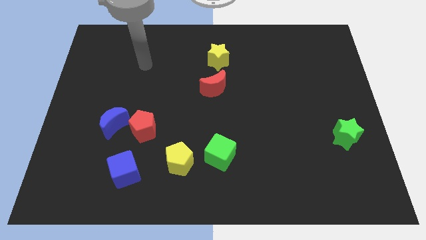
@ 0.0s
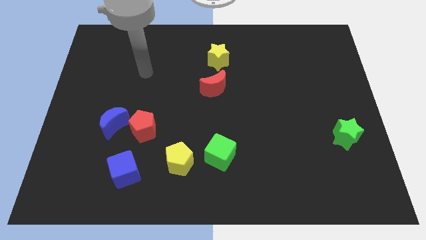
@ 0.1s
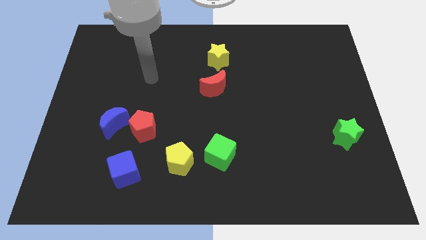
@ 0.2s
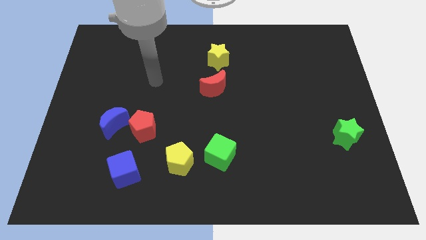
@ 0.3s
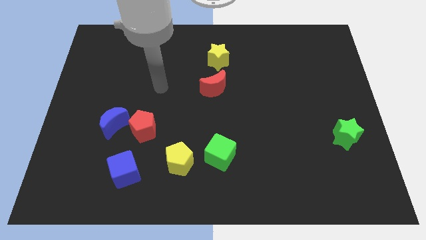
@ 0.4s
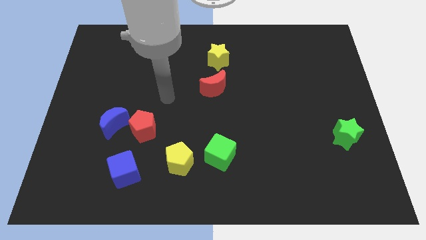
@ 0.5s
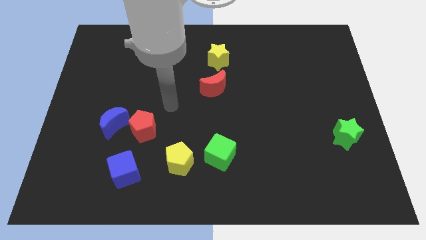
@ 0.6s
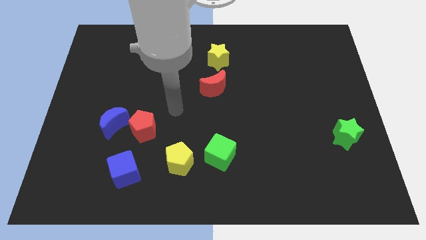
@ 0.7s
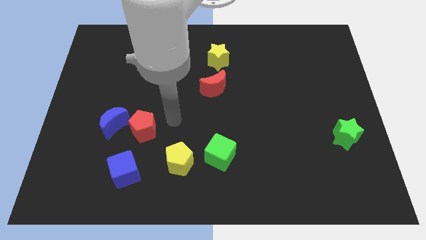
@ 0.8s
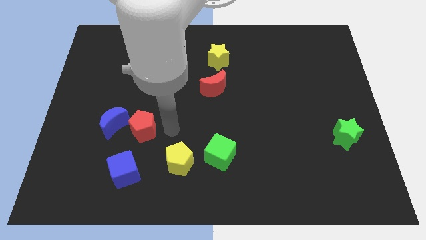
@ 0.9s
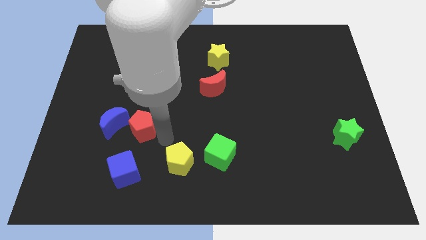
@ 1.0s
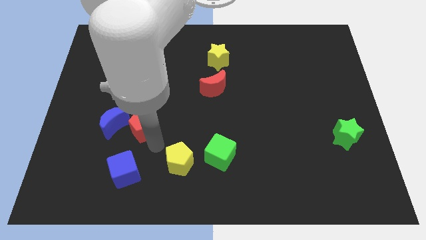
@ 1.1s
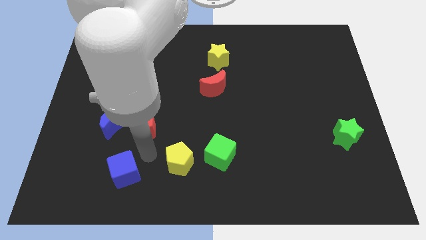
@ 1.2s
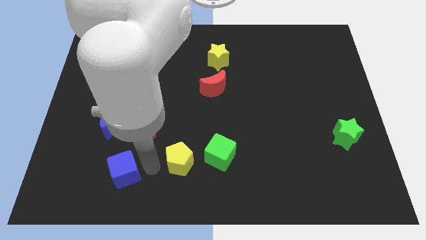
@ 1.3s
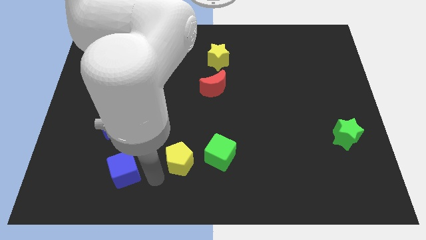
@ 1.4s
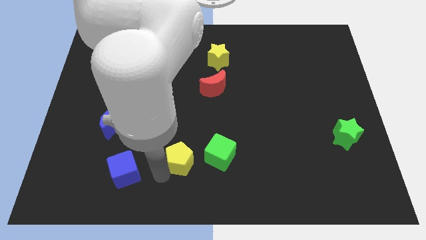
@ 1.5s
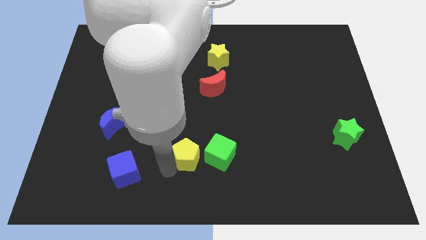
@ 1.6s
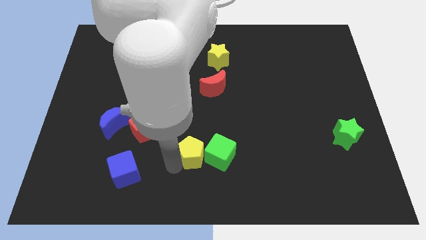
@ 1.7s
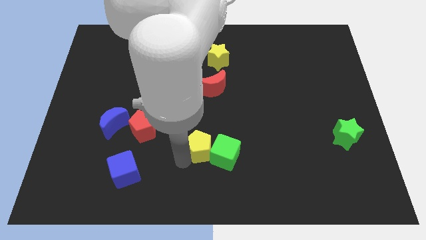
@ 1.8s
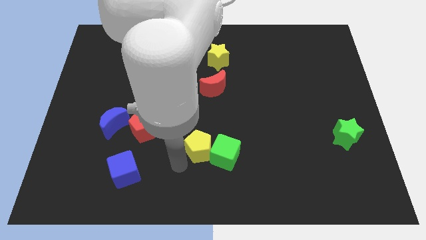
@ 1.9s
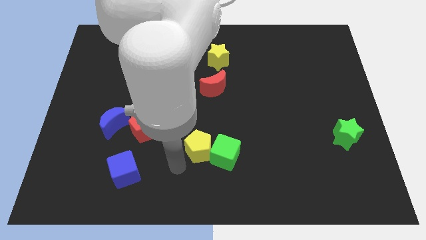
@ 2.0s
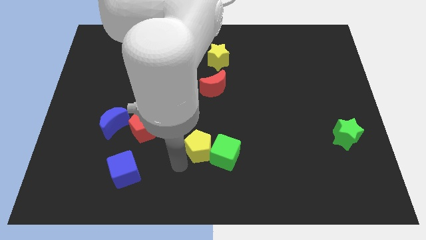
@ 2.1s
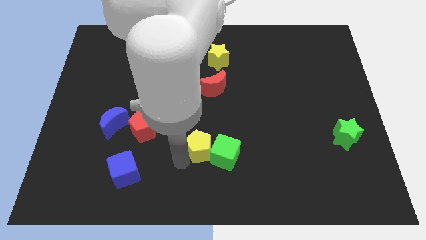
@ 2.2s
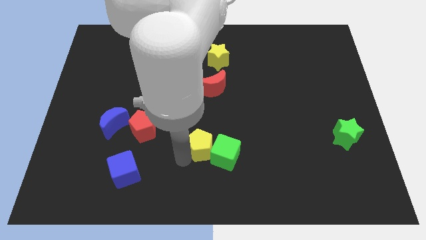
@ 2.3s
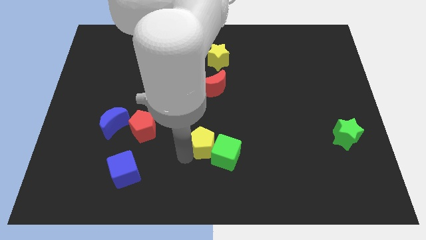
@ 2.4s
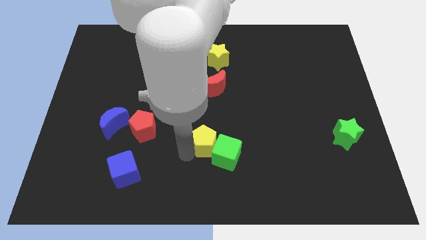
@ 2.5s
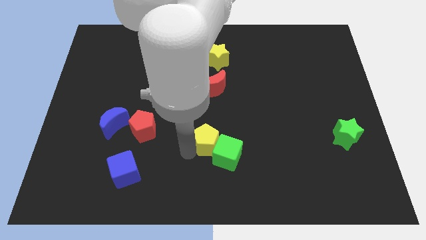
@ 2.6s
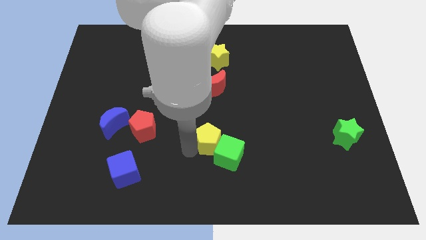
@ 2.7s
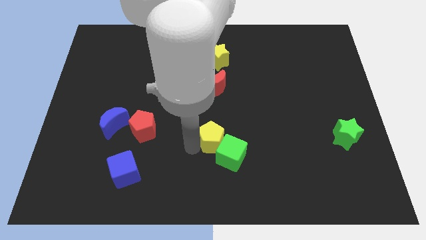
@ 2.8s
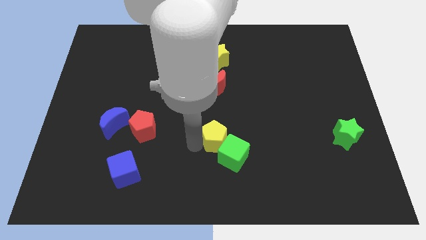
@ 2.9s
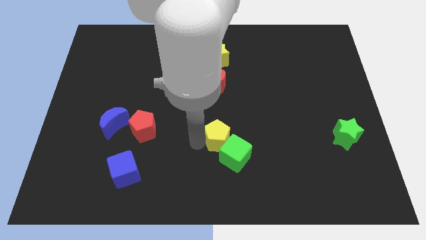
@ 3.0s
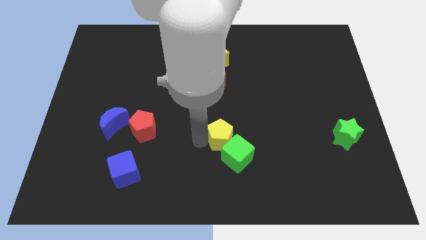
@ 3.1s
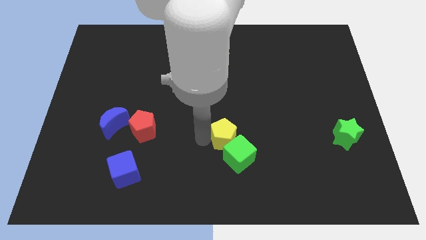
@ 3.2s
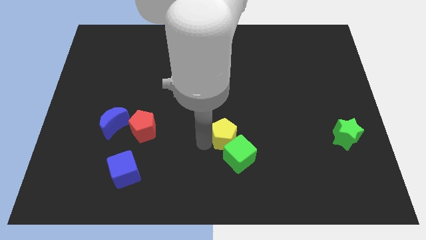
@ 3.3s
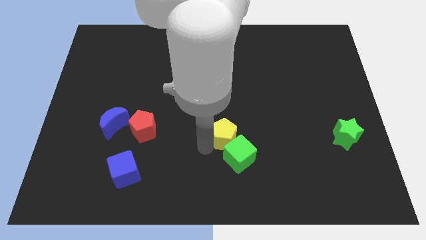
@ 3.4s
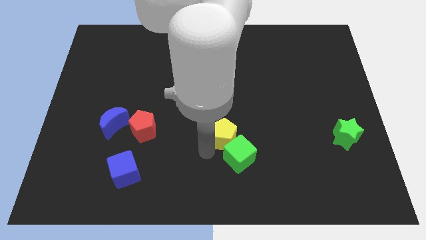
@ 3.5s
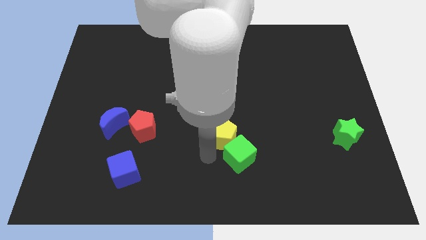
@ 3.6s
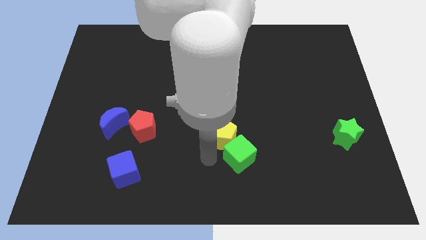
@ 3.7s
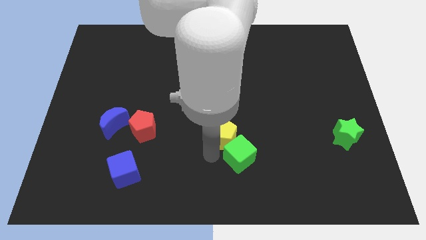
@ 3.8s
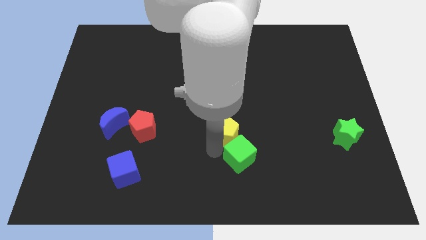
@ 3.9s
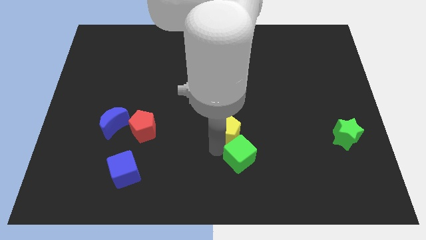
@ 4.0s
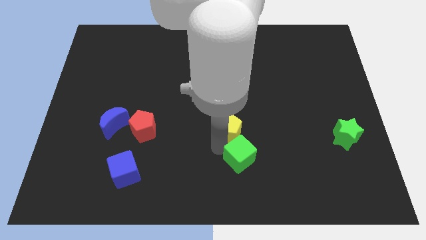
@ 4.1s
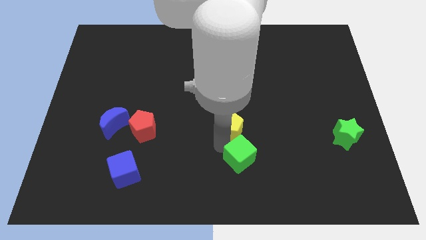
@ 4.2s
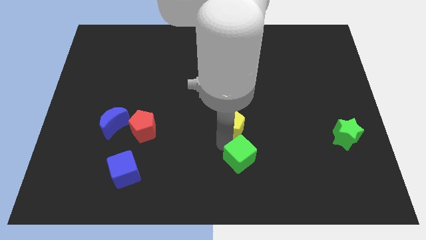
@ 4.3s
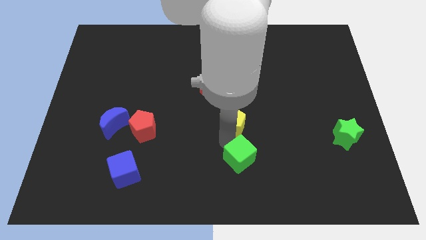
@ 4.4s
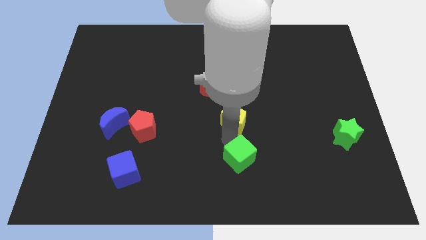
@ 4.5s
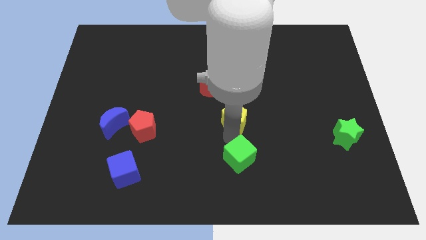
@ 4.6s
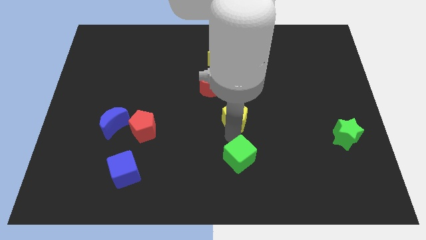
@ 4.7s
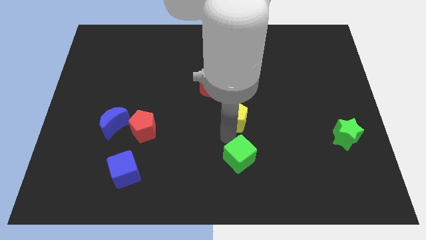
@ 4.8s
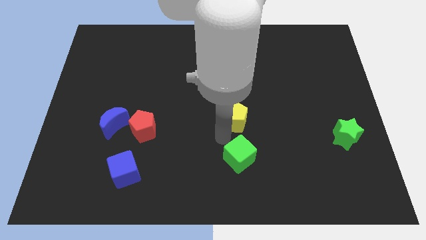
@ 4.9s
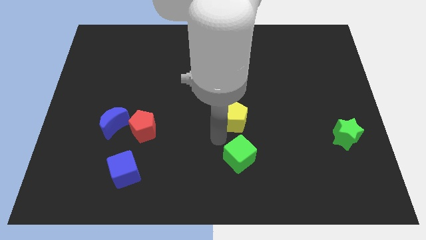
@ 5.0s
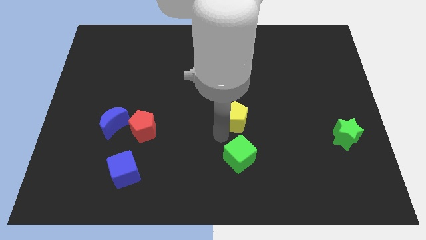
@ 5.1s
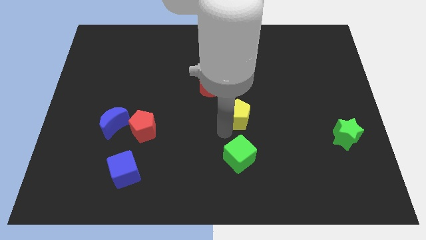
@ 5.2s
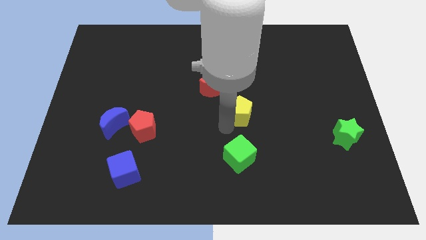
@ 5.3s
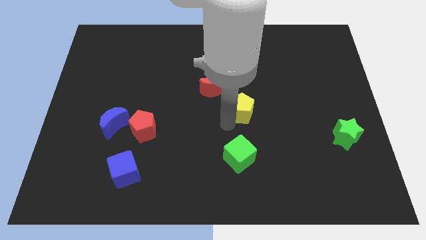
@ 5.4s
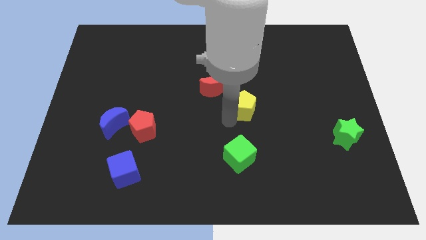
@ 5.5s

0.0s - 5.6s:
slide the yellow pentagon up and to the right diagonally

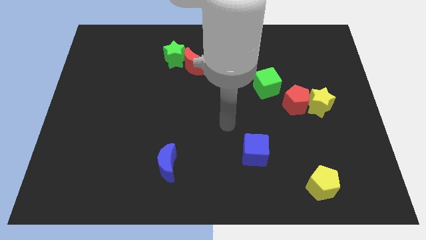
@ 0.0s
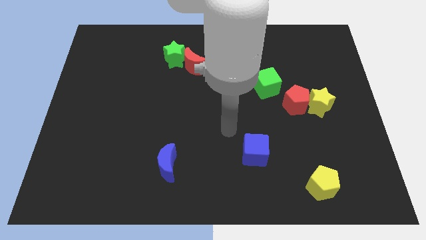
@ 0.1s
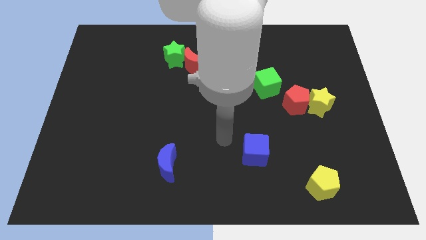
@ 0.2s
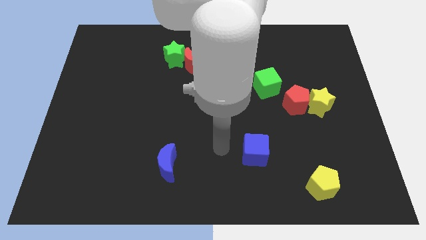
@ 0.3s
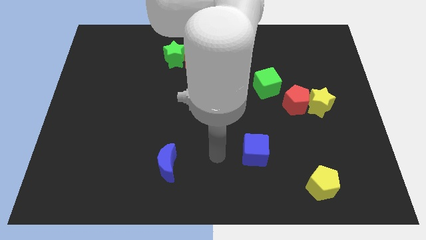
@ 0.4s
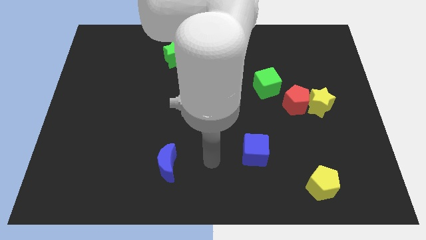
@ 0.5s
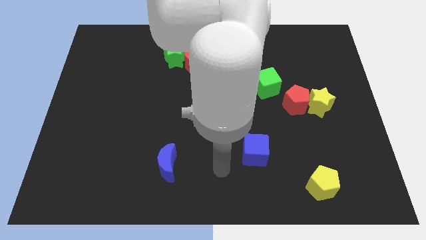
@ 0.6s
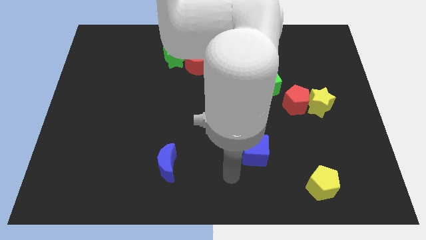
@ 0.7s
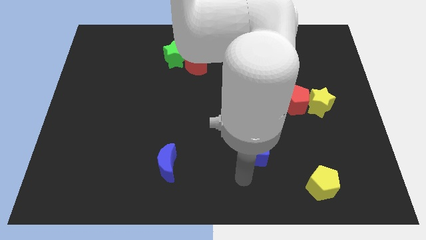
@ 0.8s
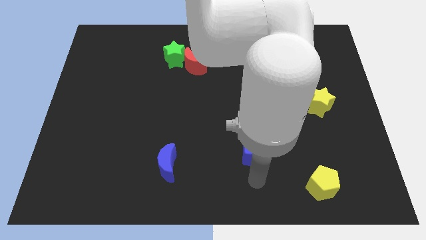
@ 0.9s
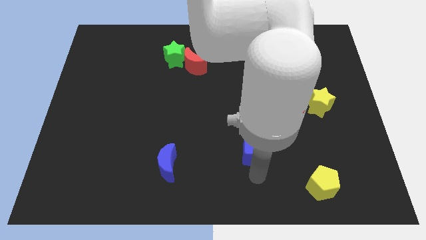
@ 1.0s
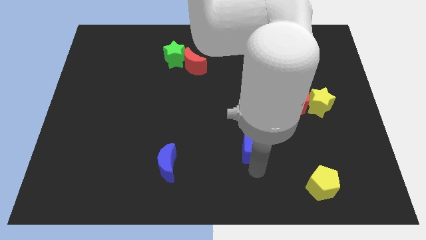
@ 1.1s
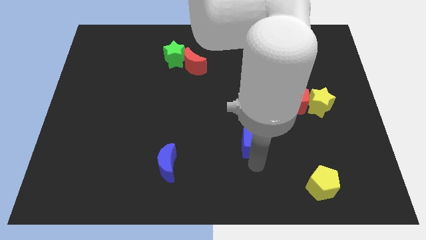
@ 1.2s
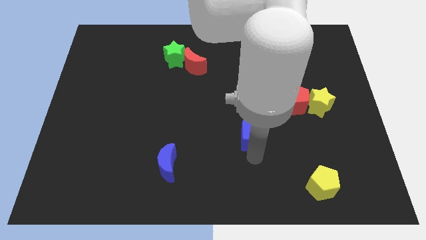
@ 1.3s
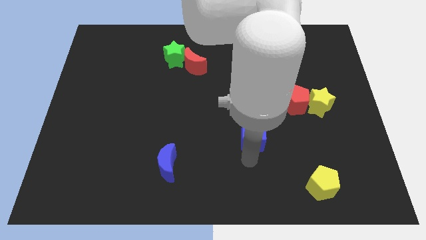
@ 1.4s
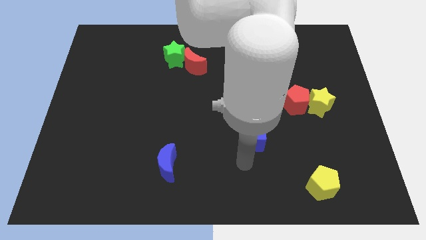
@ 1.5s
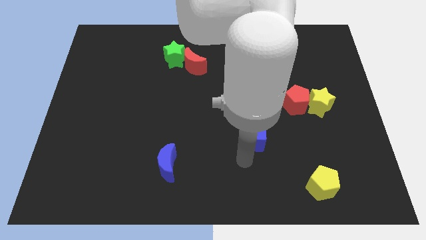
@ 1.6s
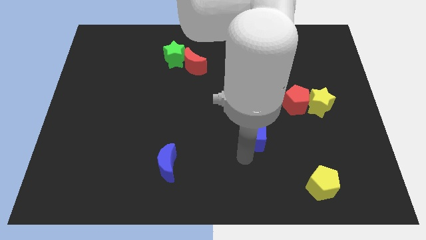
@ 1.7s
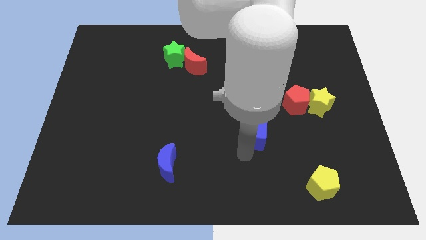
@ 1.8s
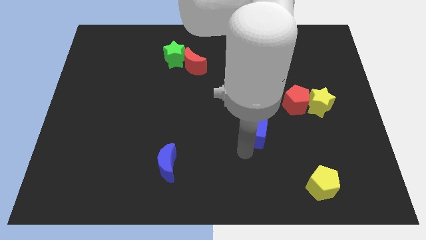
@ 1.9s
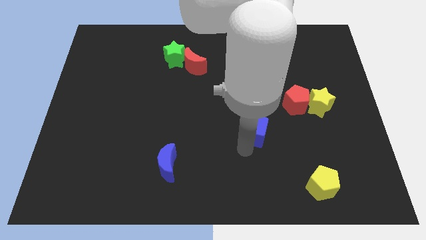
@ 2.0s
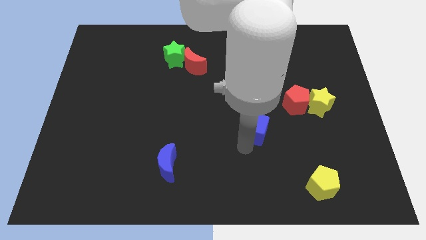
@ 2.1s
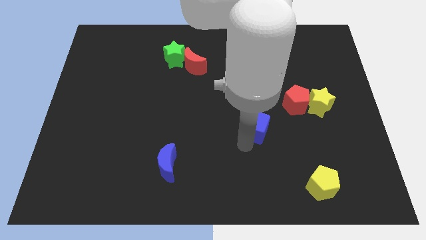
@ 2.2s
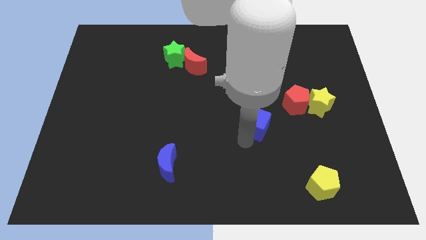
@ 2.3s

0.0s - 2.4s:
move the blue cube a little bit up
